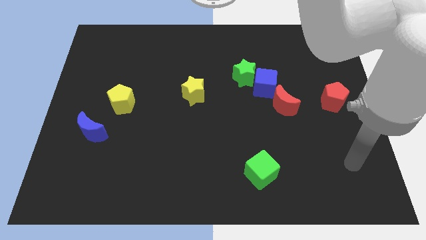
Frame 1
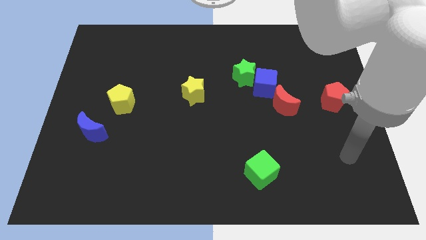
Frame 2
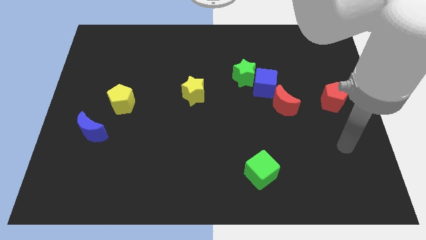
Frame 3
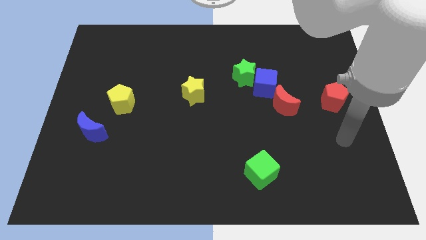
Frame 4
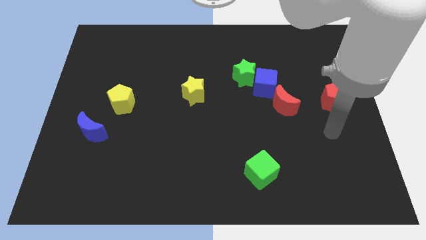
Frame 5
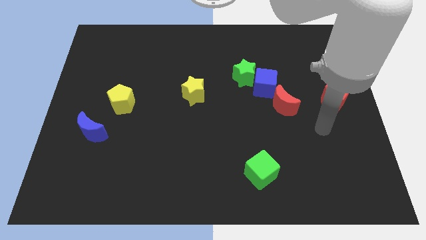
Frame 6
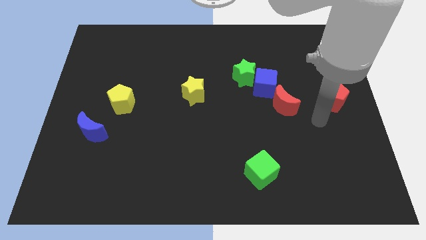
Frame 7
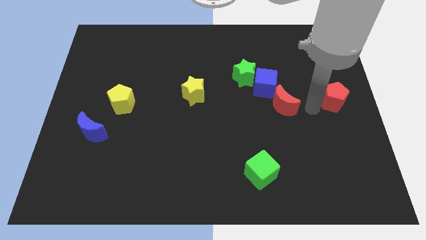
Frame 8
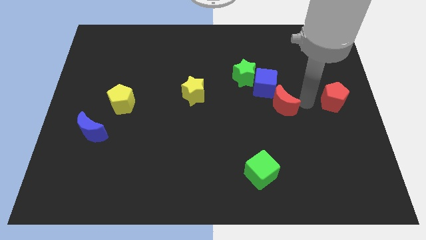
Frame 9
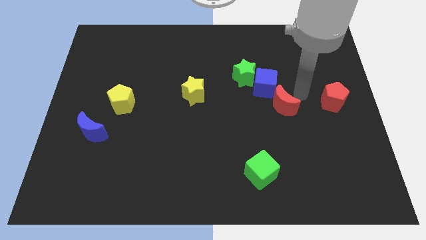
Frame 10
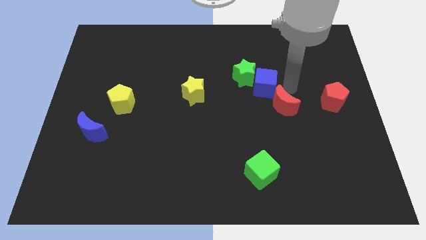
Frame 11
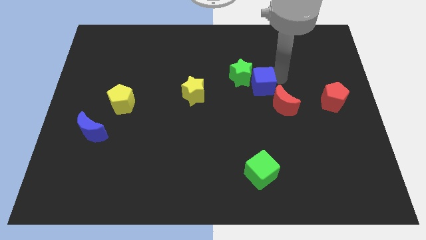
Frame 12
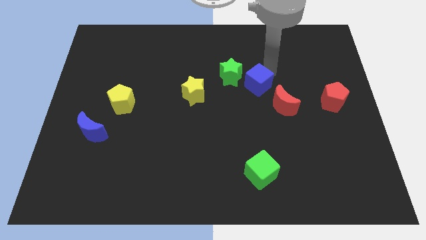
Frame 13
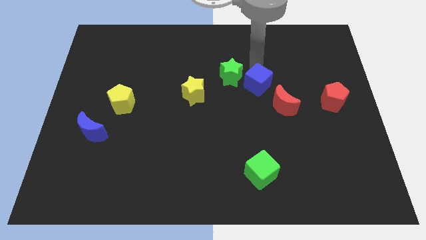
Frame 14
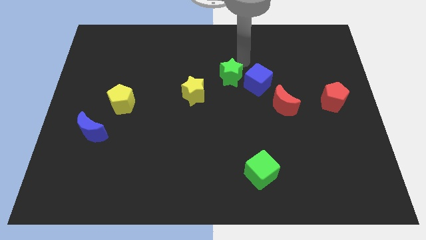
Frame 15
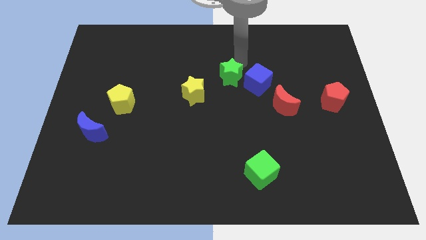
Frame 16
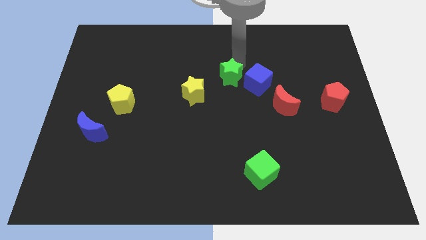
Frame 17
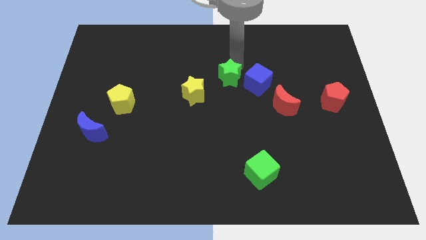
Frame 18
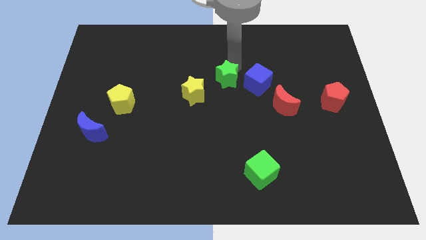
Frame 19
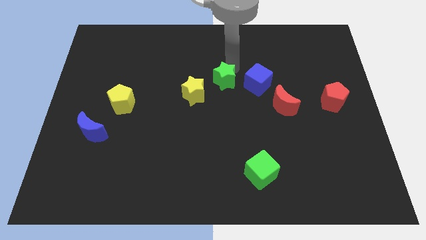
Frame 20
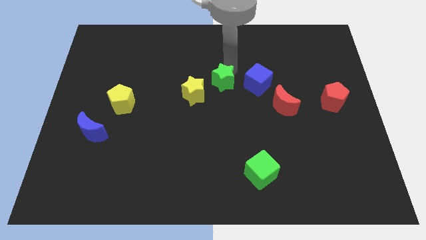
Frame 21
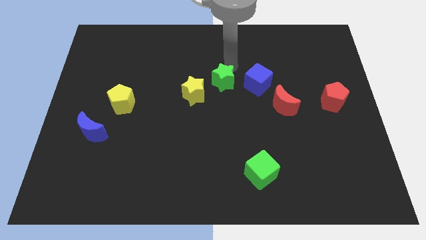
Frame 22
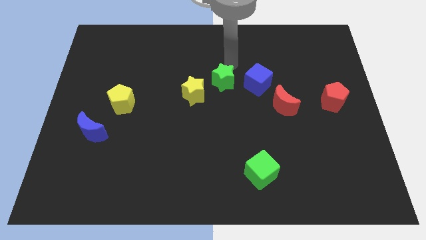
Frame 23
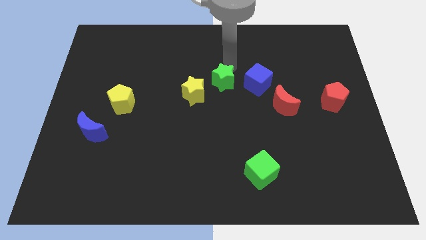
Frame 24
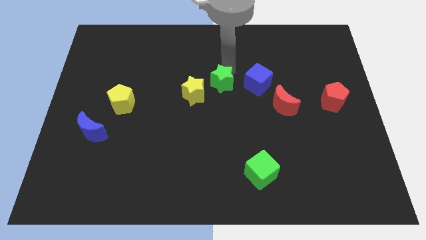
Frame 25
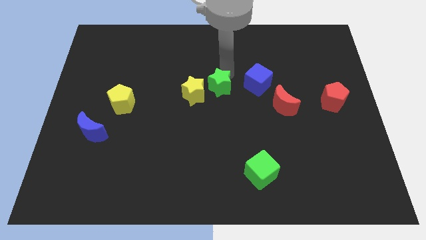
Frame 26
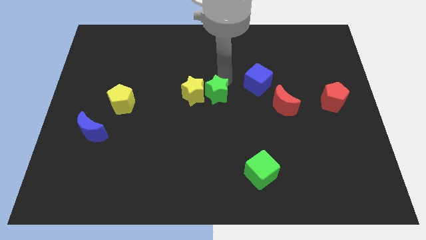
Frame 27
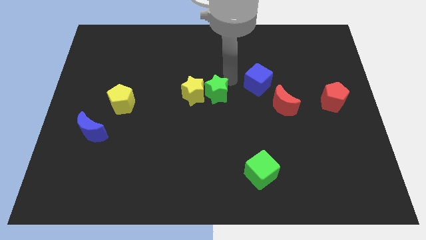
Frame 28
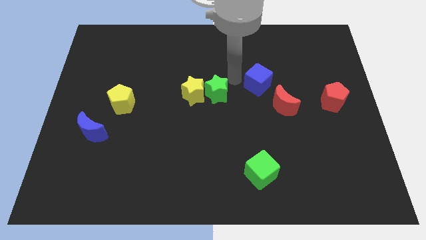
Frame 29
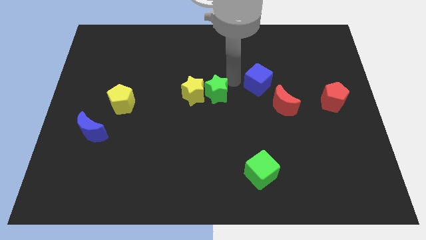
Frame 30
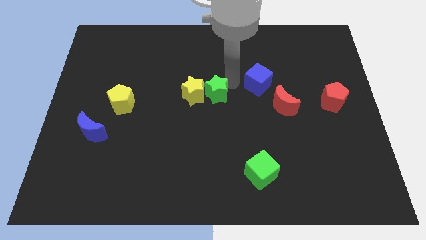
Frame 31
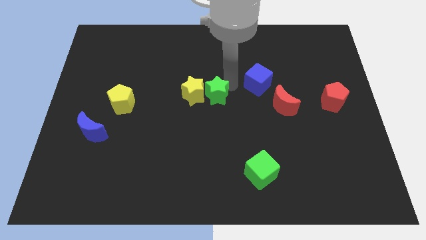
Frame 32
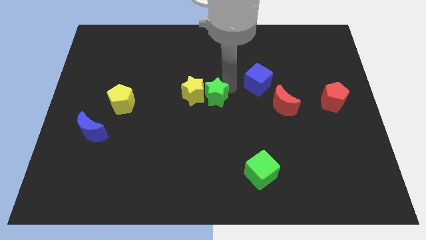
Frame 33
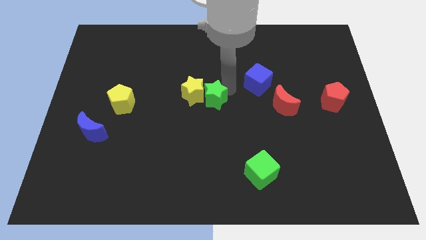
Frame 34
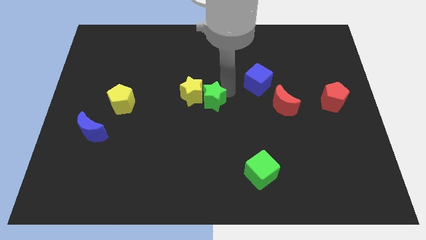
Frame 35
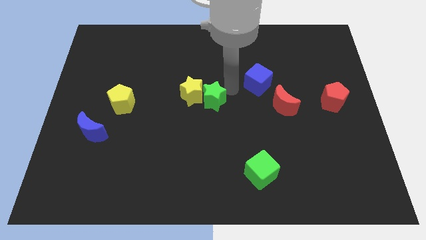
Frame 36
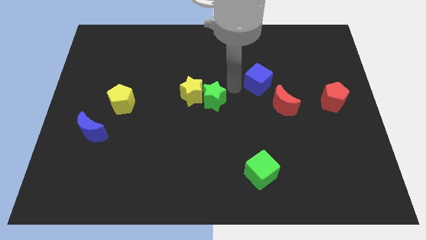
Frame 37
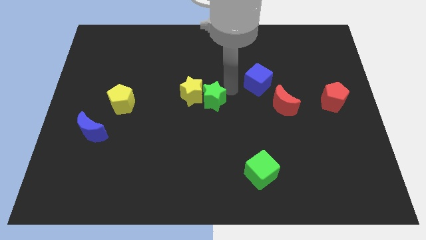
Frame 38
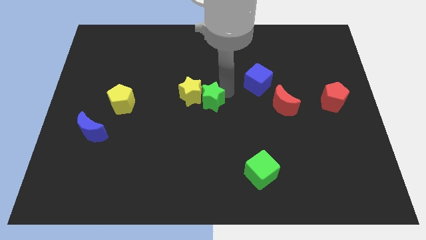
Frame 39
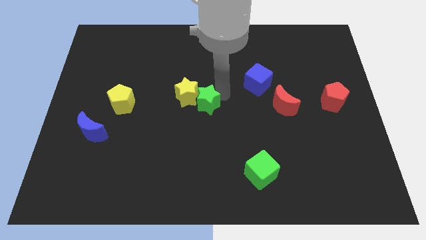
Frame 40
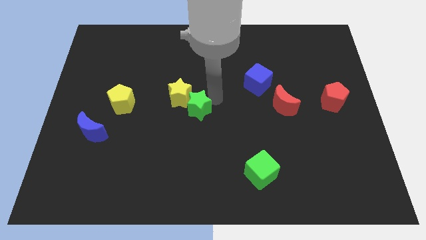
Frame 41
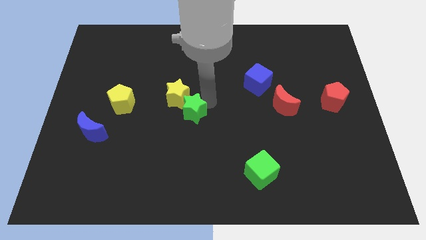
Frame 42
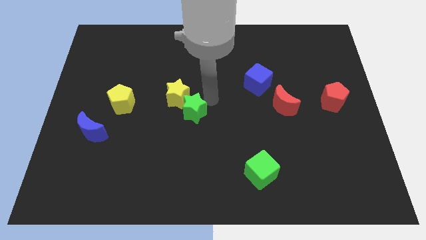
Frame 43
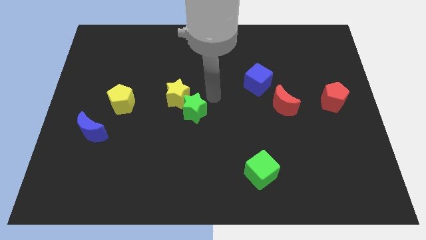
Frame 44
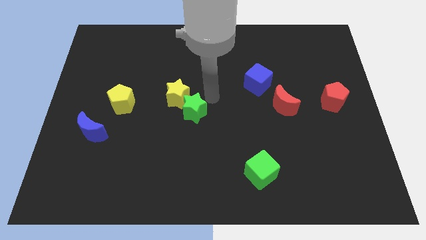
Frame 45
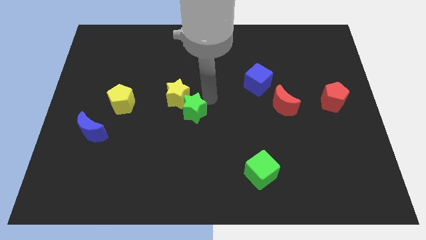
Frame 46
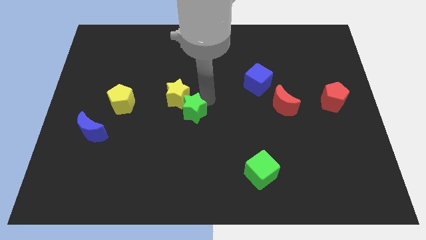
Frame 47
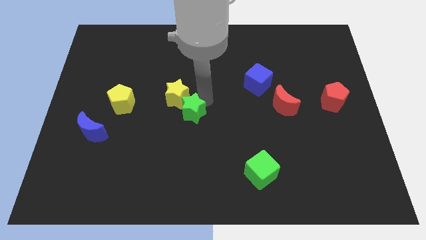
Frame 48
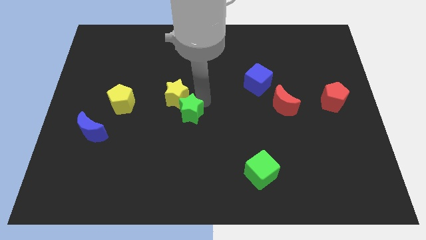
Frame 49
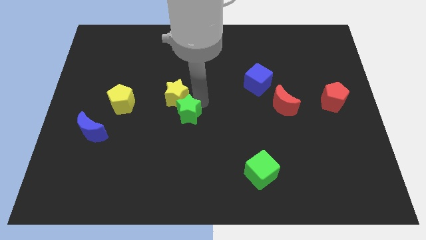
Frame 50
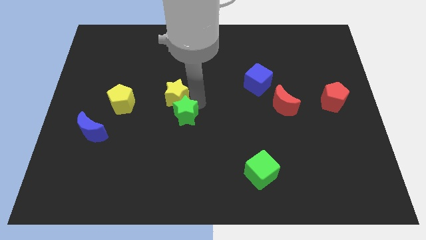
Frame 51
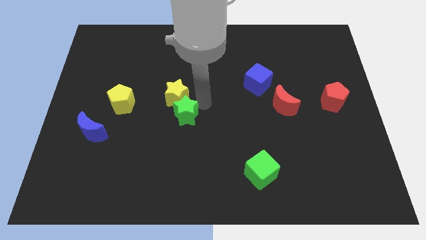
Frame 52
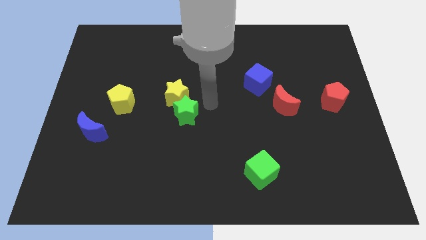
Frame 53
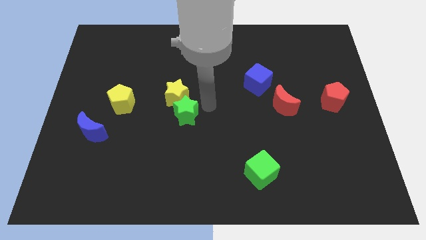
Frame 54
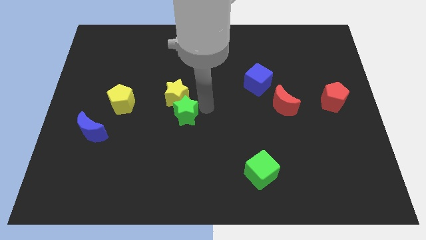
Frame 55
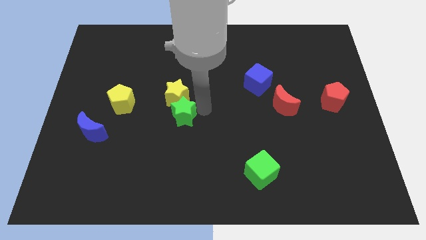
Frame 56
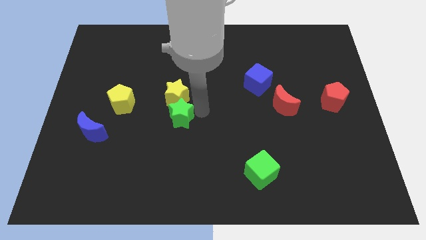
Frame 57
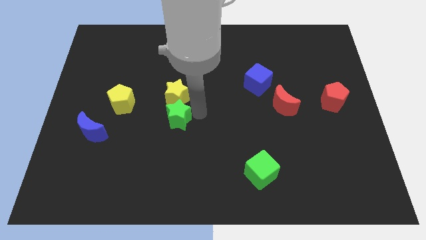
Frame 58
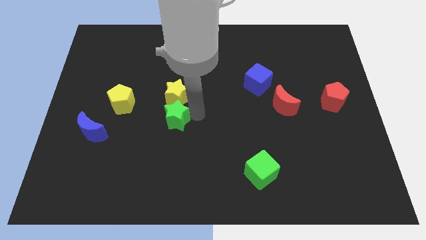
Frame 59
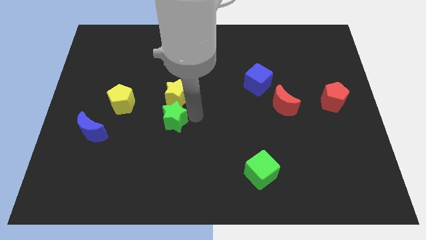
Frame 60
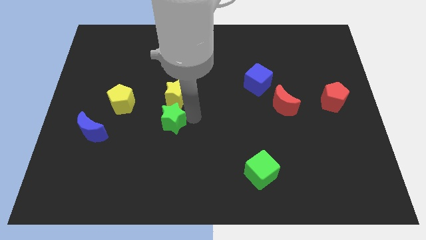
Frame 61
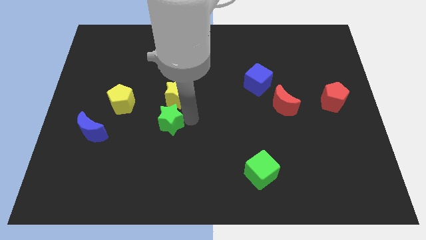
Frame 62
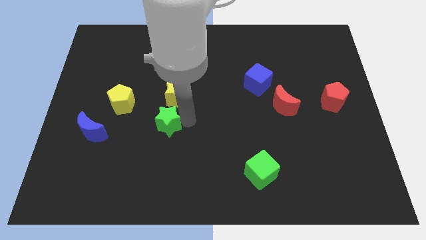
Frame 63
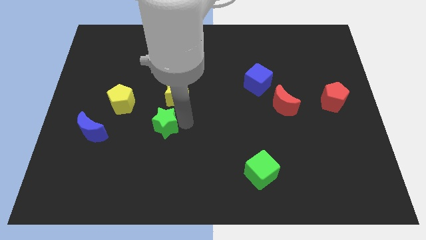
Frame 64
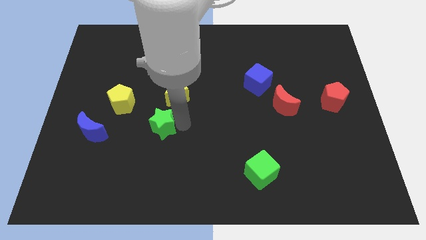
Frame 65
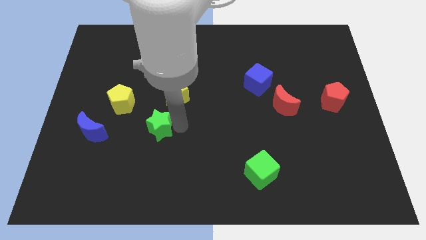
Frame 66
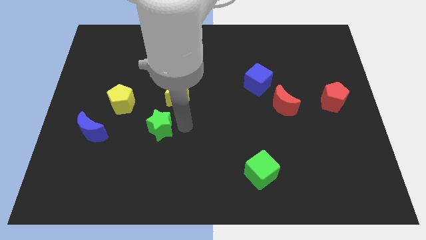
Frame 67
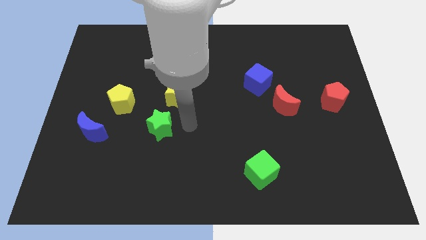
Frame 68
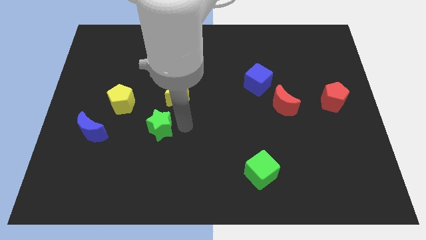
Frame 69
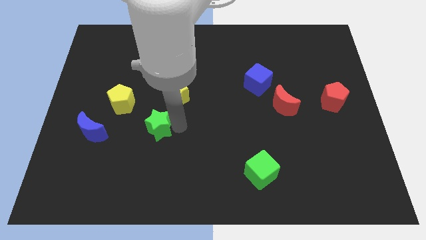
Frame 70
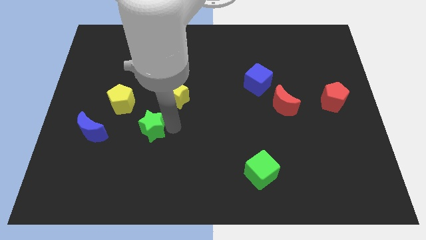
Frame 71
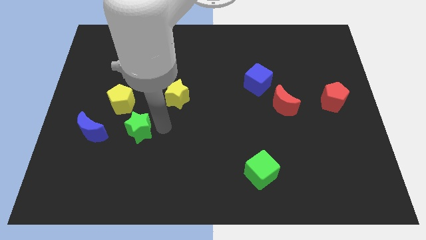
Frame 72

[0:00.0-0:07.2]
put the green star below the yellow pentagon
